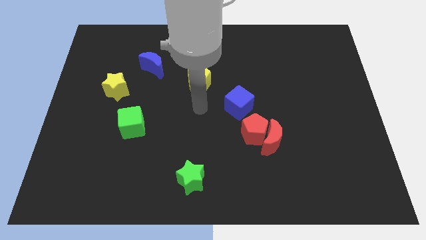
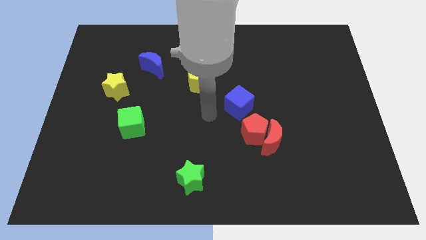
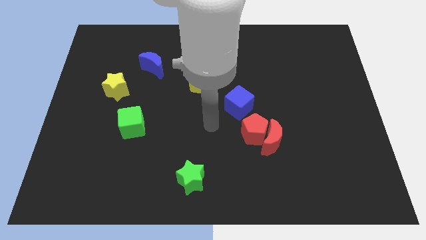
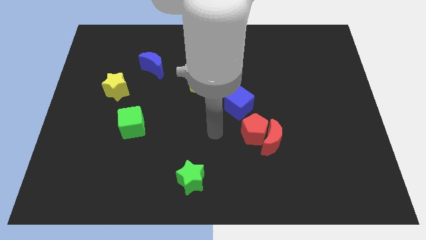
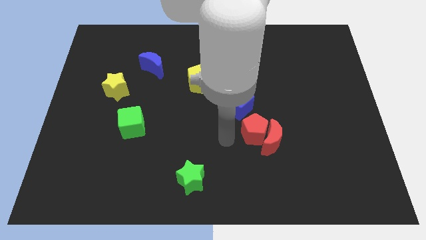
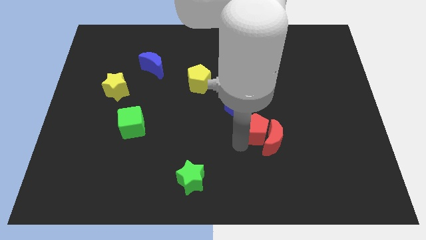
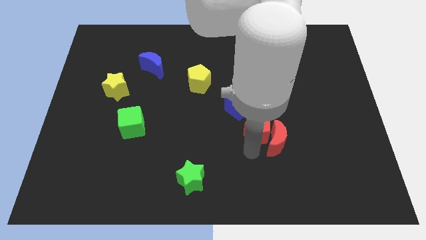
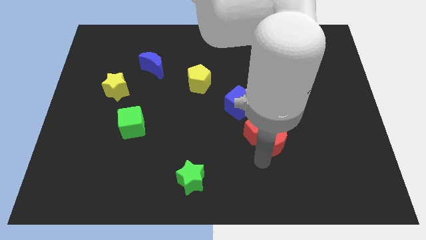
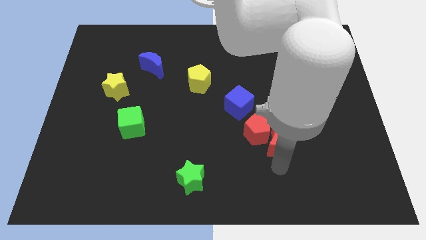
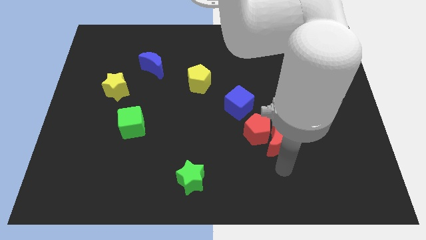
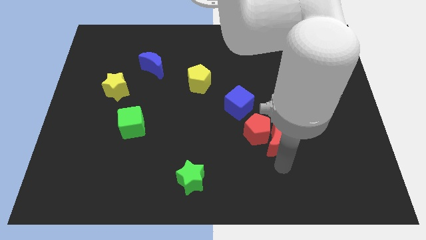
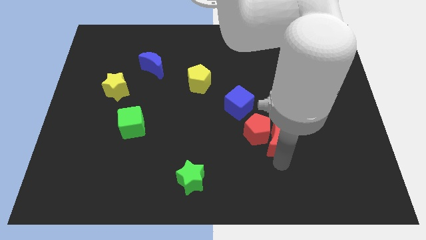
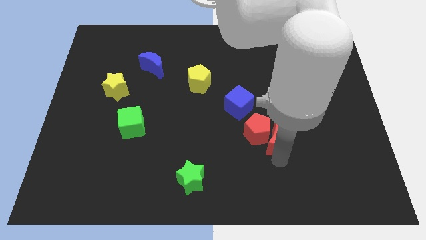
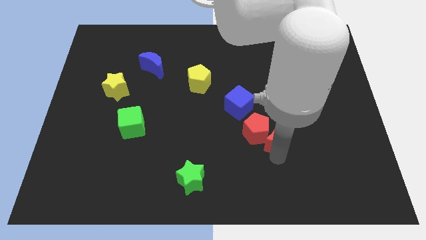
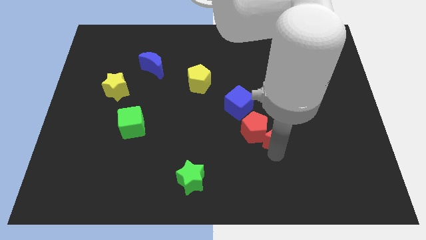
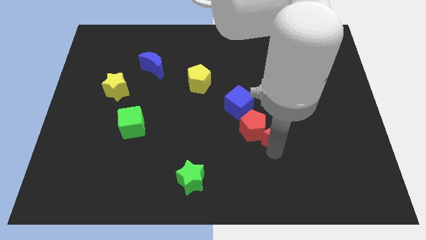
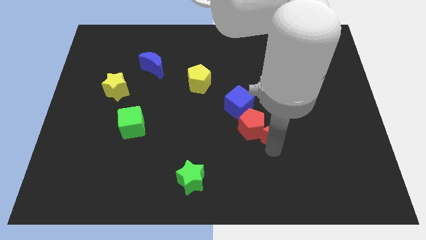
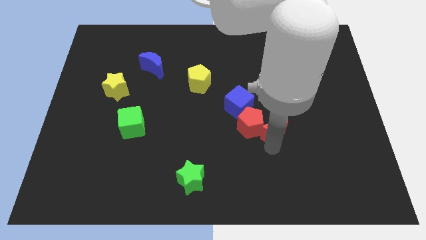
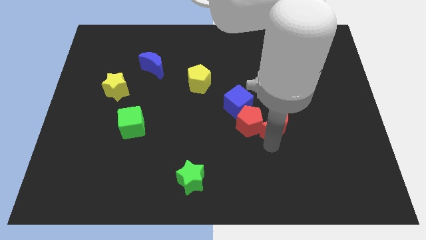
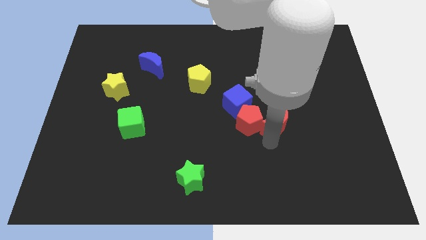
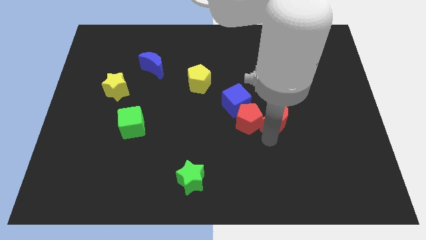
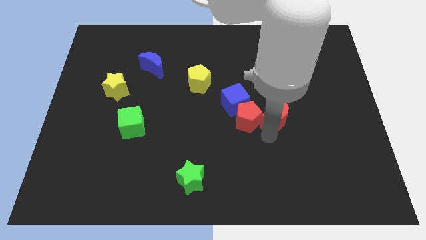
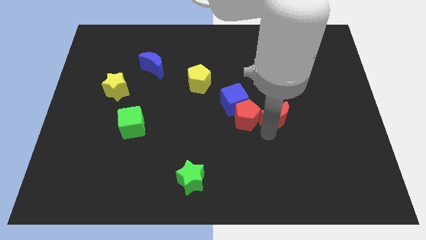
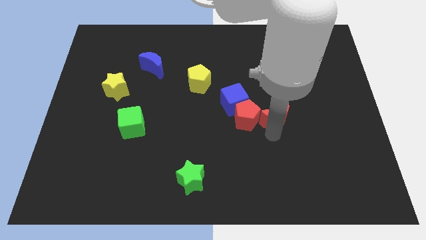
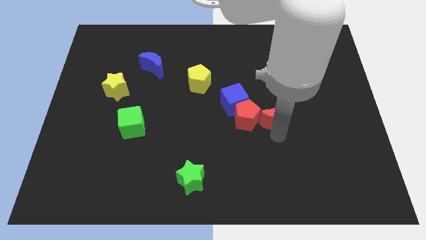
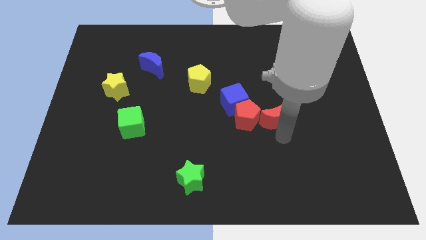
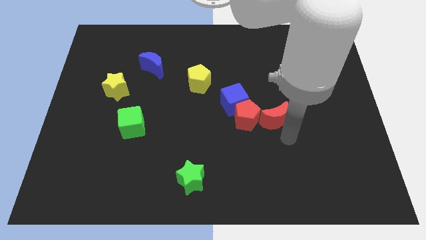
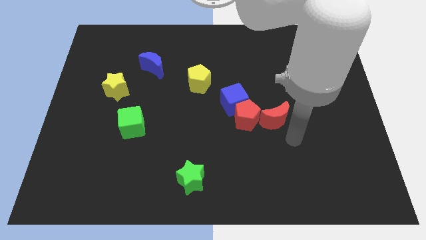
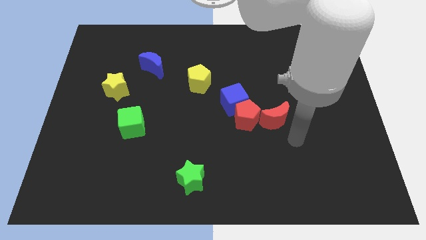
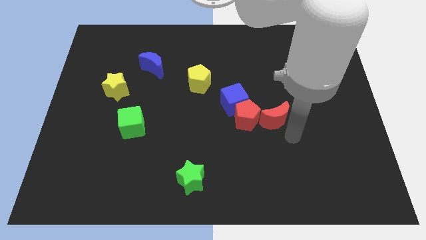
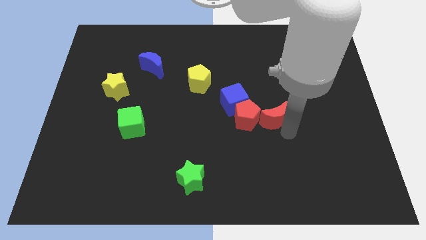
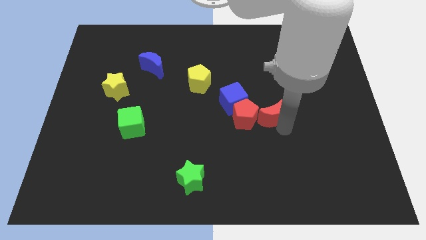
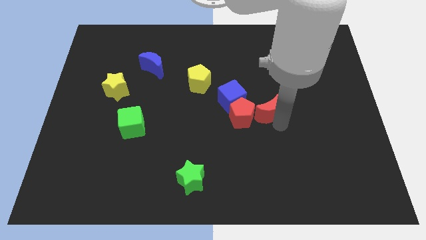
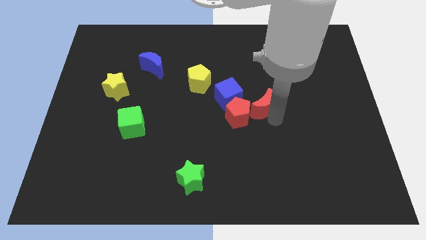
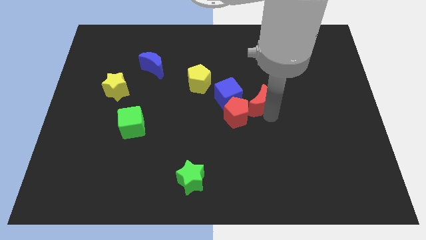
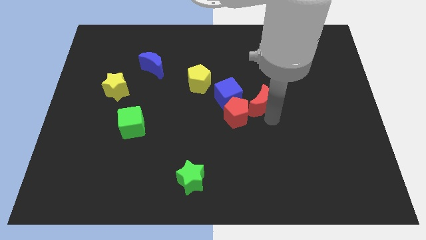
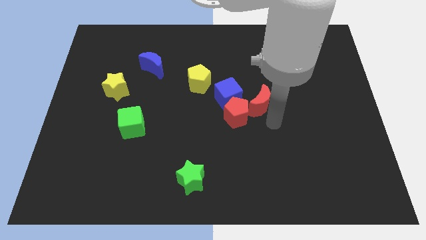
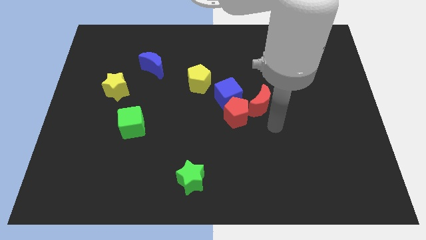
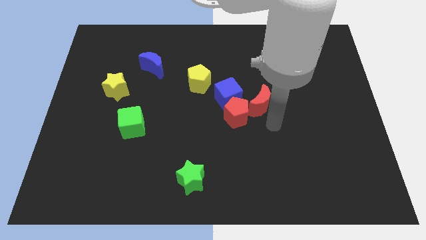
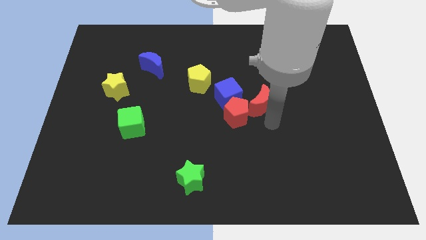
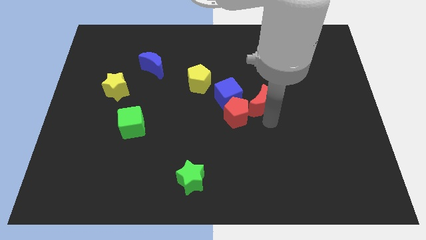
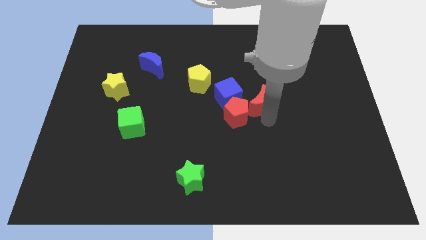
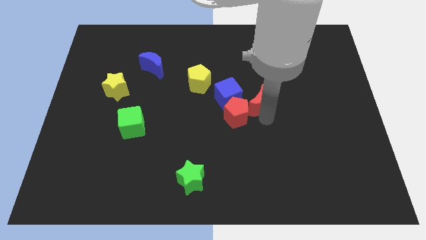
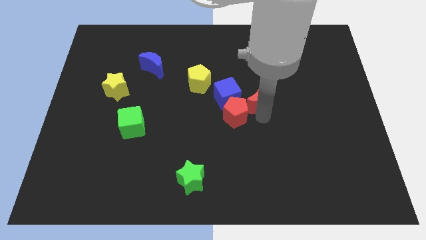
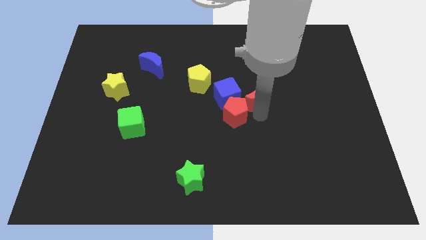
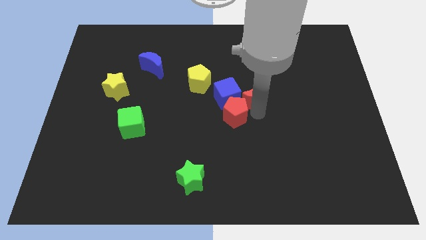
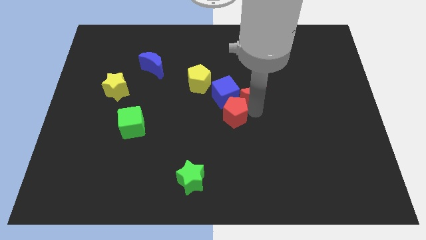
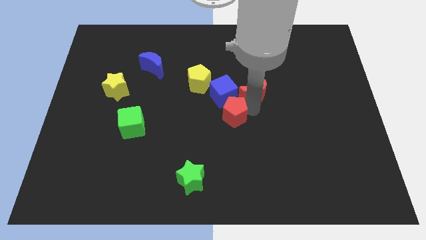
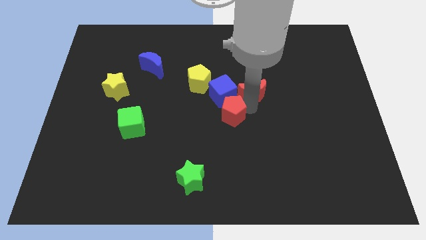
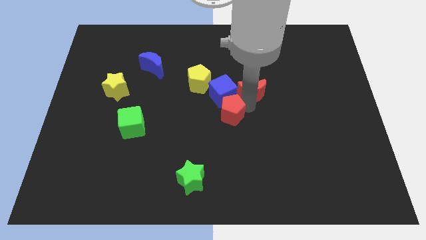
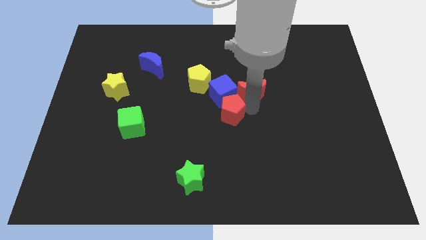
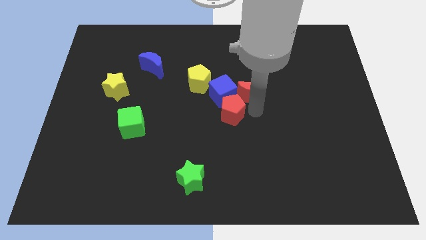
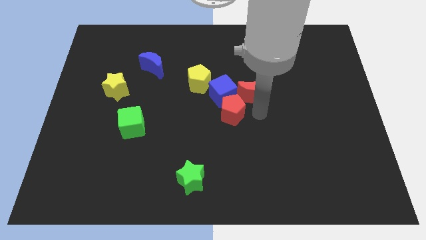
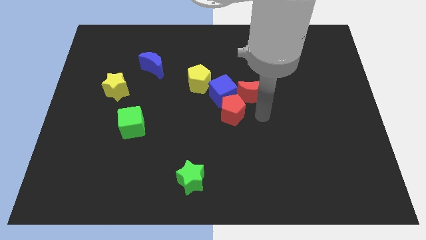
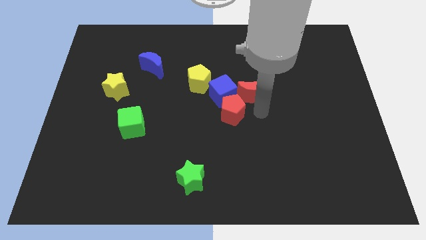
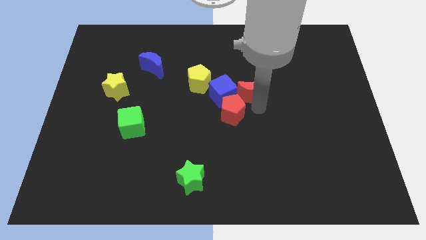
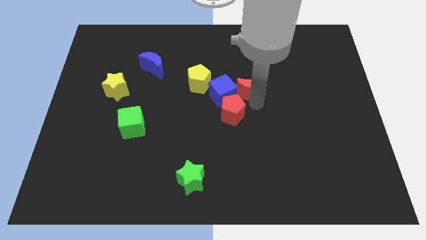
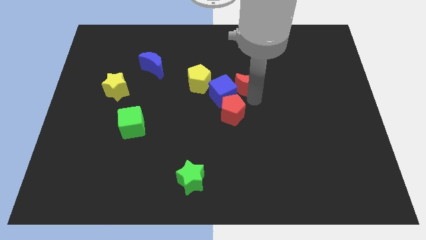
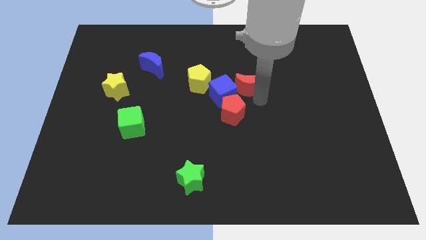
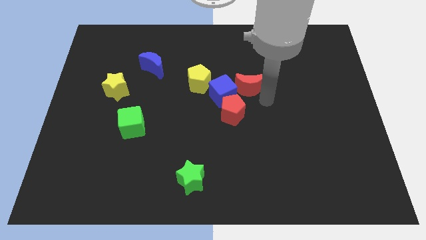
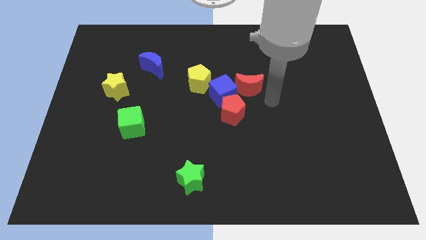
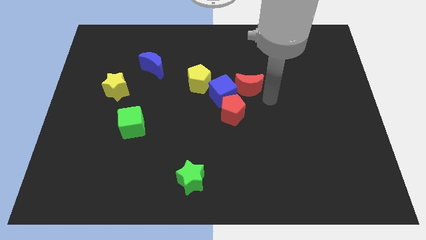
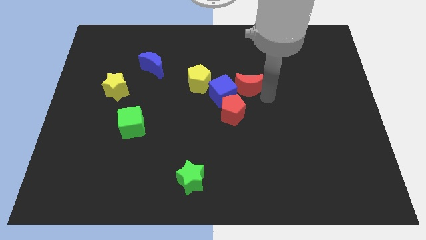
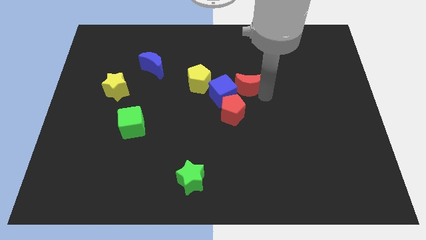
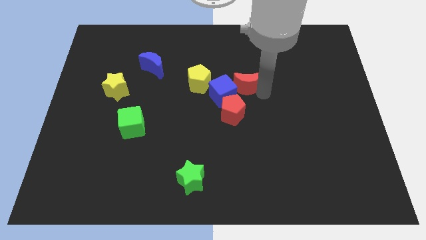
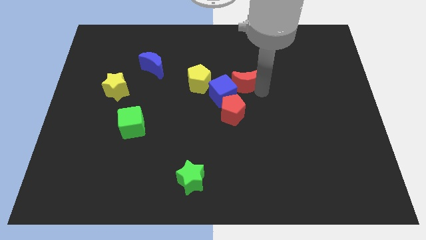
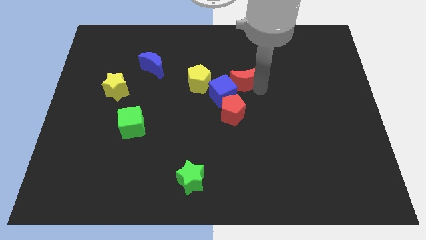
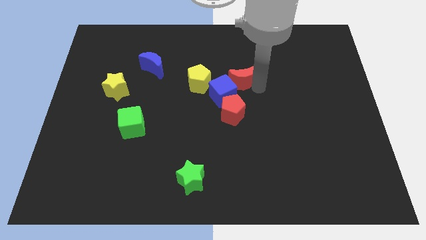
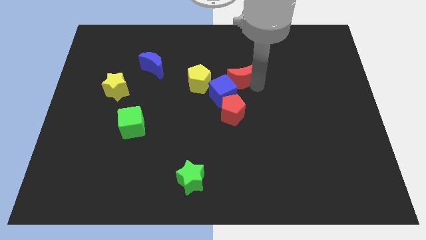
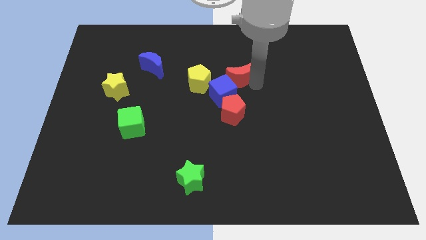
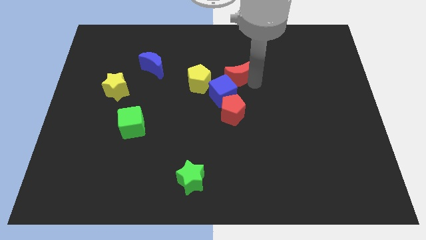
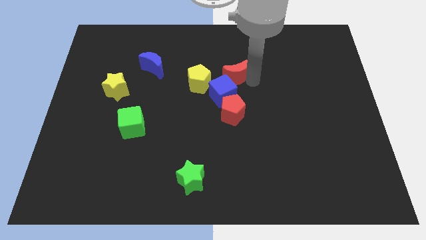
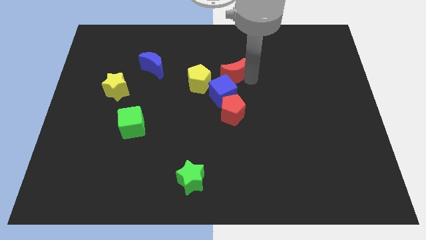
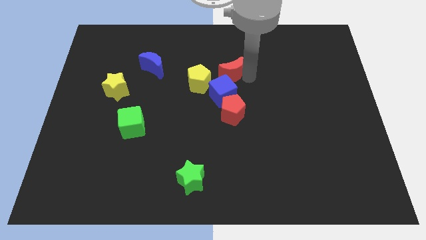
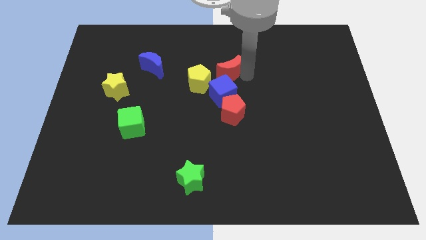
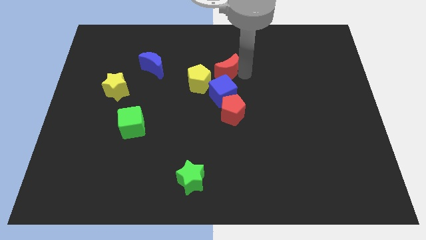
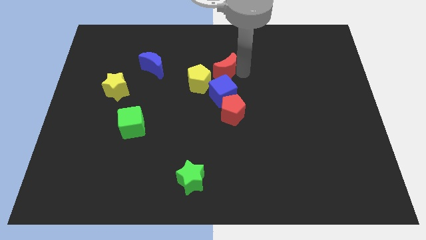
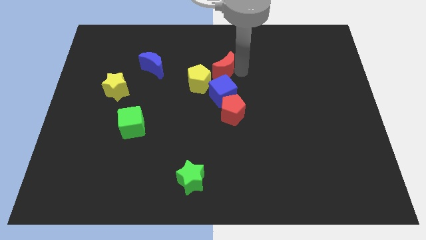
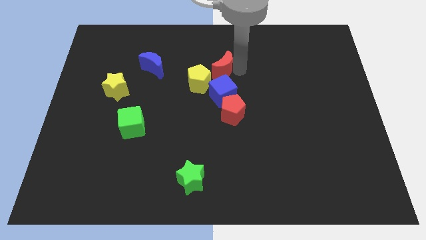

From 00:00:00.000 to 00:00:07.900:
move the red moon up and then to the left
